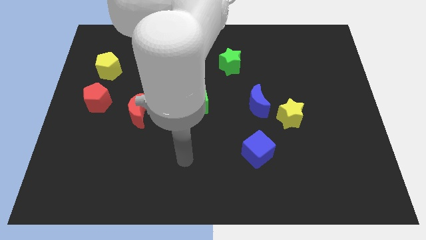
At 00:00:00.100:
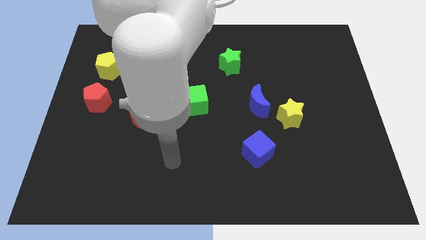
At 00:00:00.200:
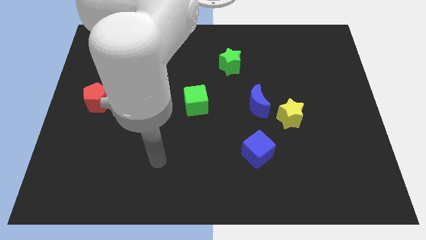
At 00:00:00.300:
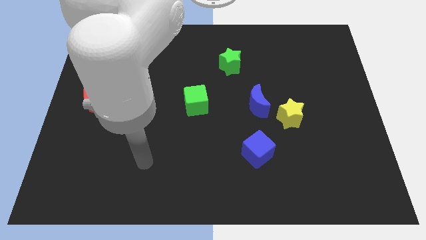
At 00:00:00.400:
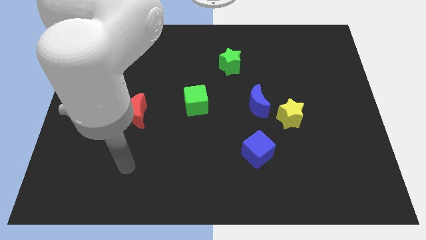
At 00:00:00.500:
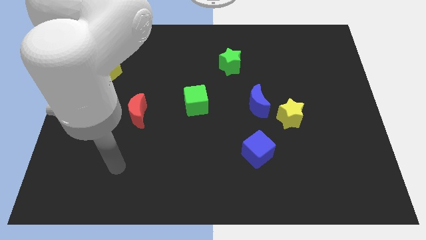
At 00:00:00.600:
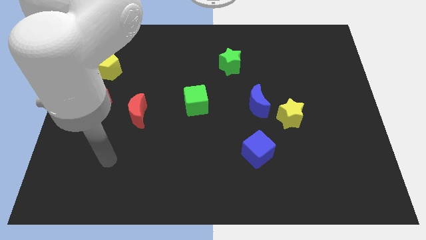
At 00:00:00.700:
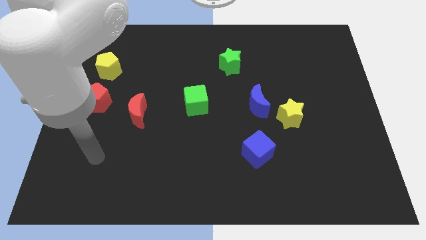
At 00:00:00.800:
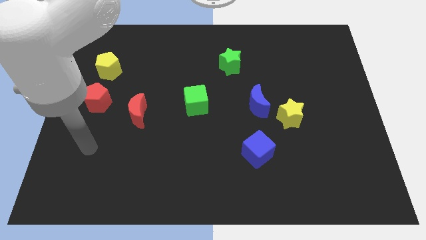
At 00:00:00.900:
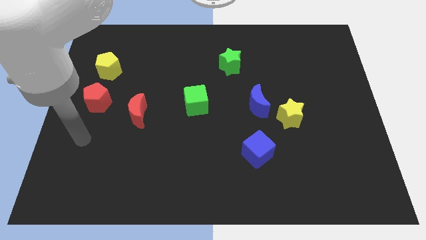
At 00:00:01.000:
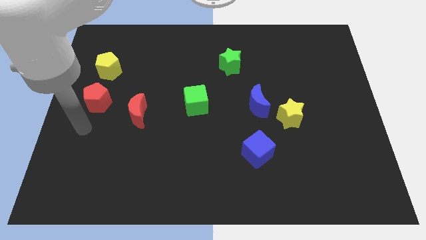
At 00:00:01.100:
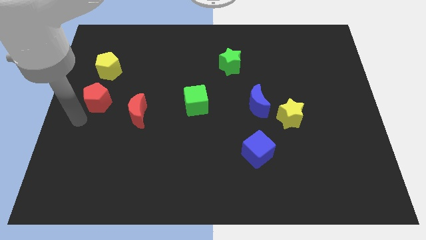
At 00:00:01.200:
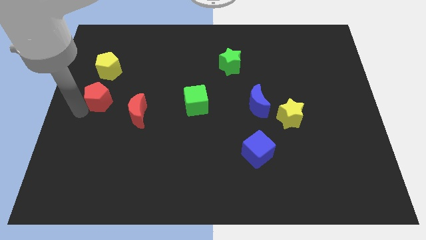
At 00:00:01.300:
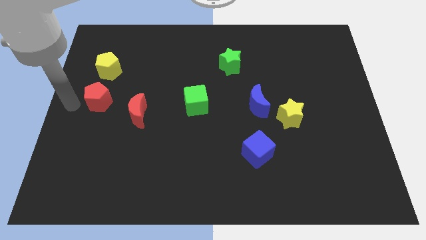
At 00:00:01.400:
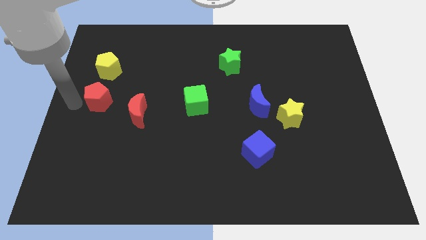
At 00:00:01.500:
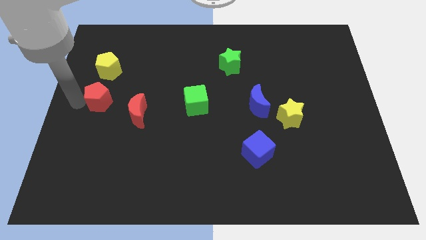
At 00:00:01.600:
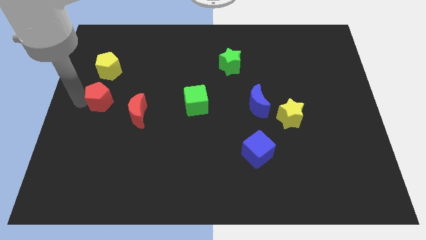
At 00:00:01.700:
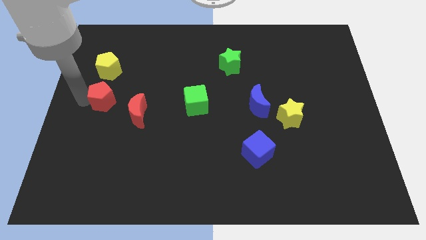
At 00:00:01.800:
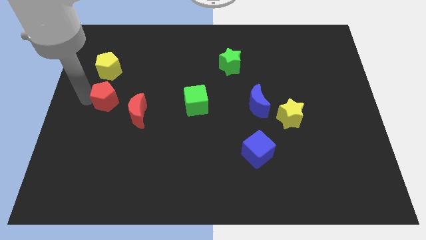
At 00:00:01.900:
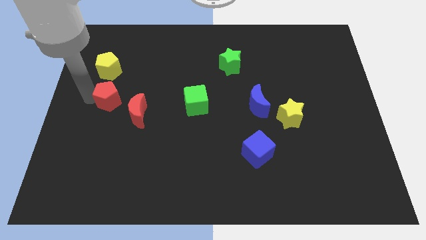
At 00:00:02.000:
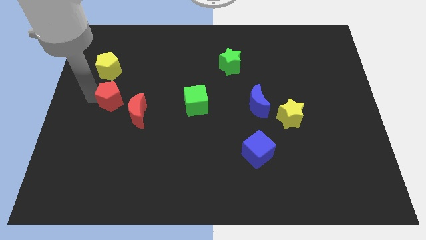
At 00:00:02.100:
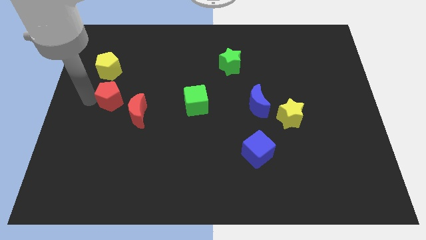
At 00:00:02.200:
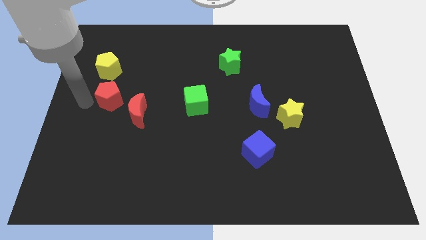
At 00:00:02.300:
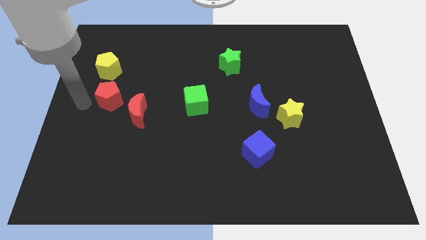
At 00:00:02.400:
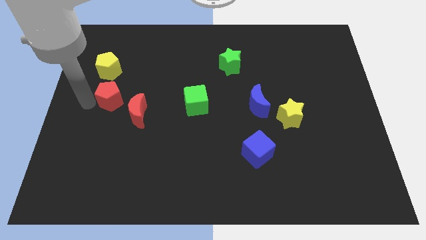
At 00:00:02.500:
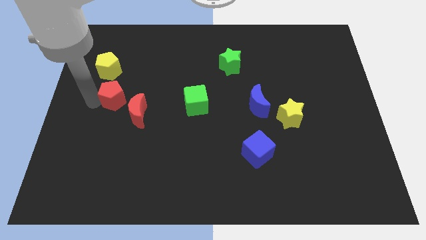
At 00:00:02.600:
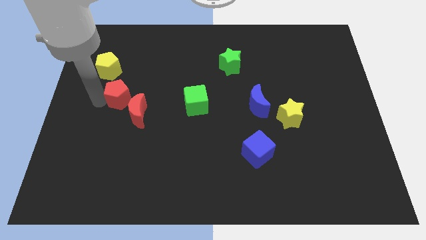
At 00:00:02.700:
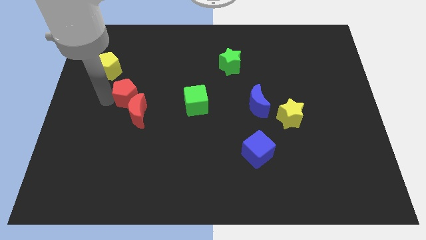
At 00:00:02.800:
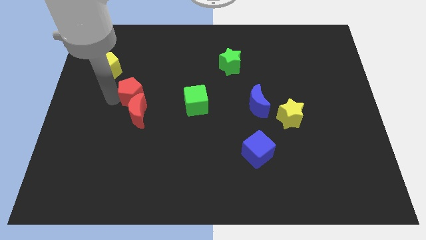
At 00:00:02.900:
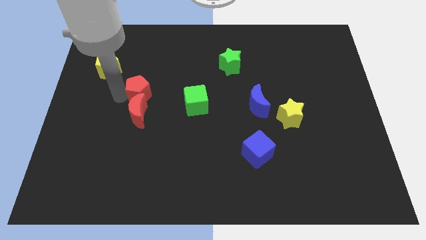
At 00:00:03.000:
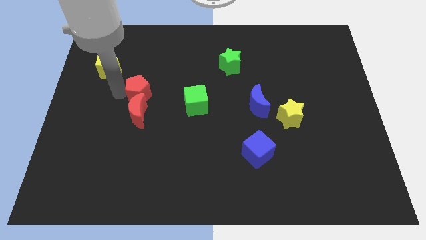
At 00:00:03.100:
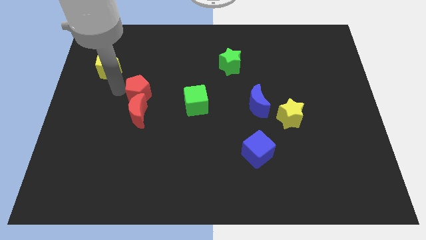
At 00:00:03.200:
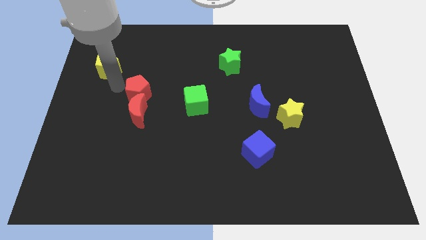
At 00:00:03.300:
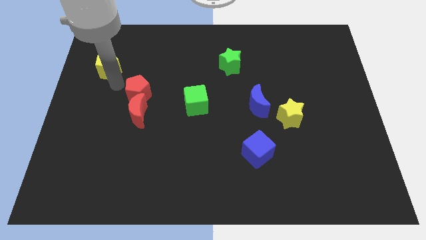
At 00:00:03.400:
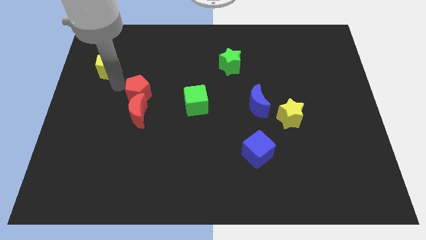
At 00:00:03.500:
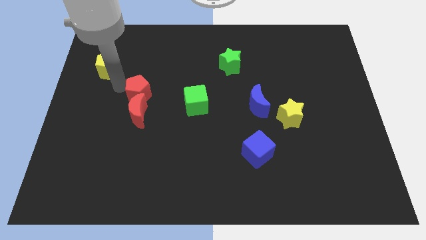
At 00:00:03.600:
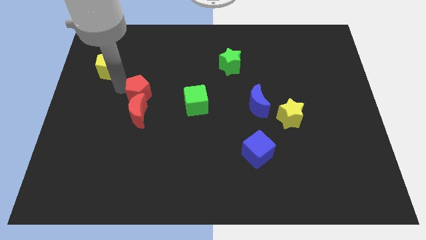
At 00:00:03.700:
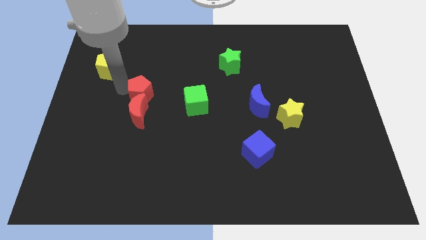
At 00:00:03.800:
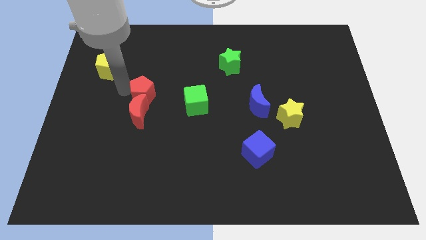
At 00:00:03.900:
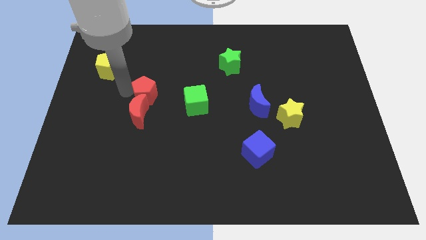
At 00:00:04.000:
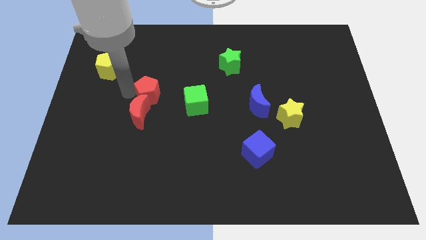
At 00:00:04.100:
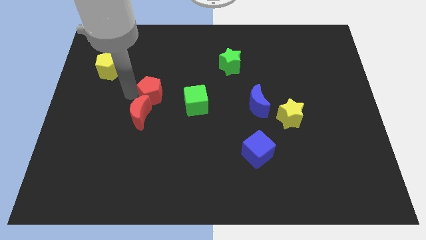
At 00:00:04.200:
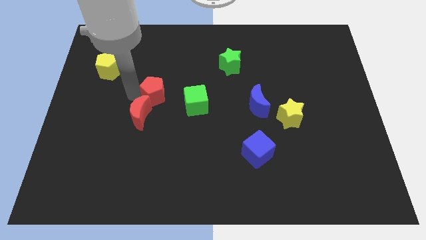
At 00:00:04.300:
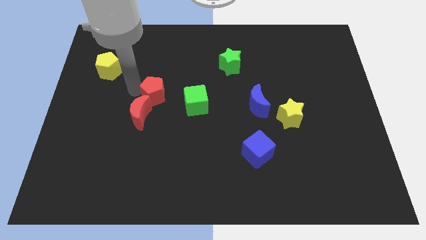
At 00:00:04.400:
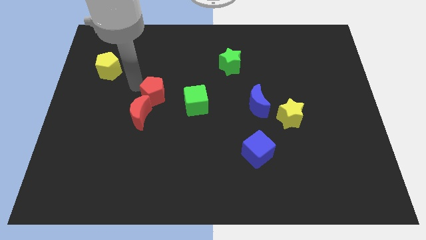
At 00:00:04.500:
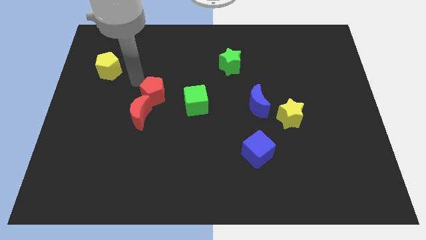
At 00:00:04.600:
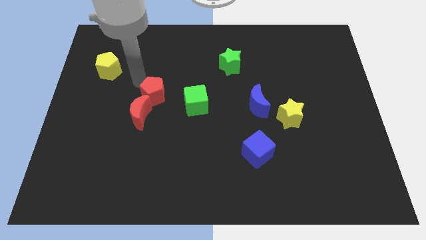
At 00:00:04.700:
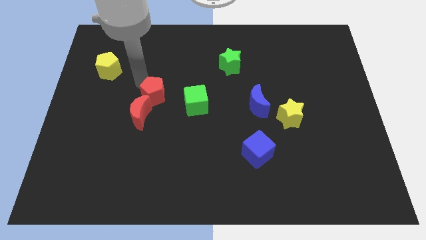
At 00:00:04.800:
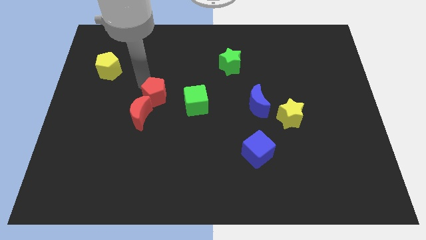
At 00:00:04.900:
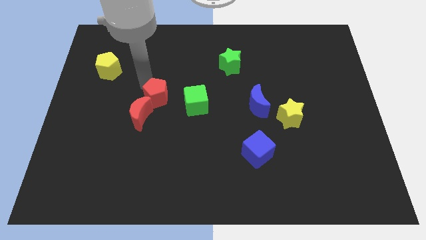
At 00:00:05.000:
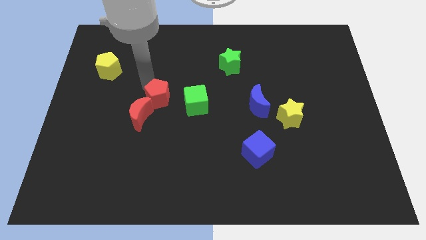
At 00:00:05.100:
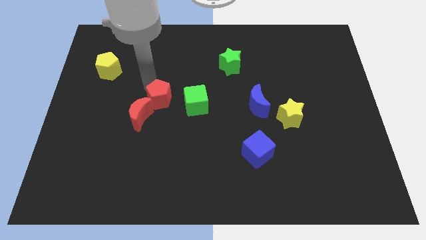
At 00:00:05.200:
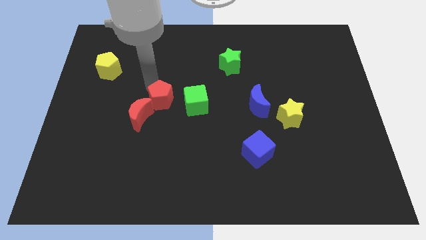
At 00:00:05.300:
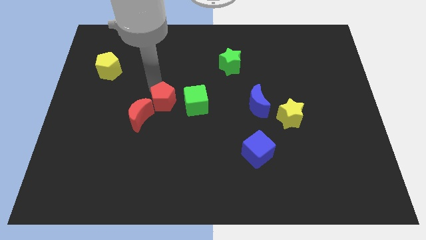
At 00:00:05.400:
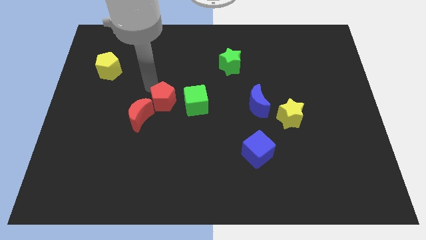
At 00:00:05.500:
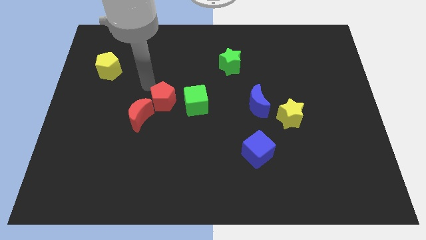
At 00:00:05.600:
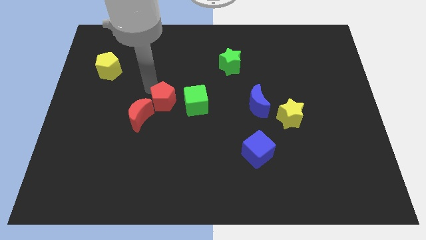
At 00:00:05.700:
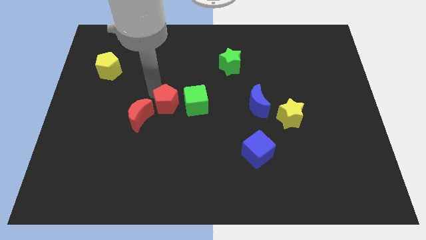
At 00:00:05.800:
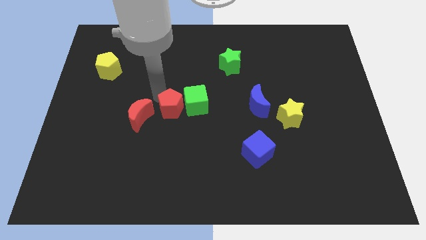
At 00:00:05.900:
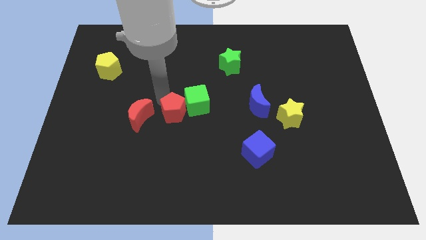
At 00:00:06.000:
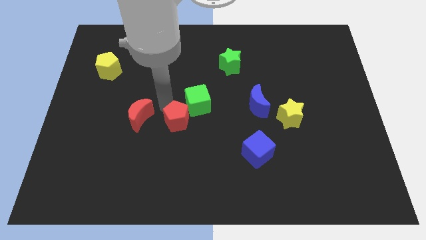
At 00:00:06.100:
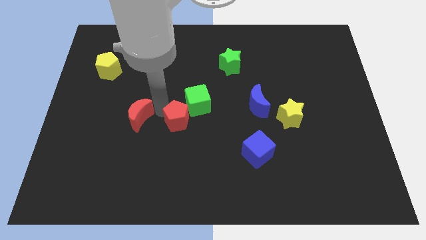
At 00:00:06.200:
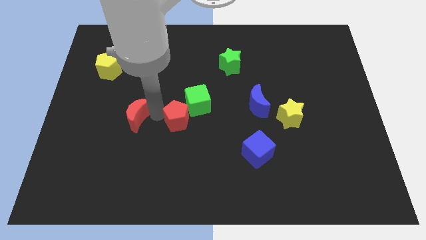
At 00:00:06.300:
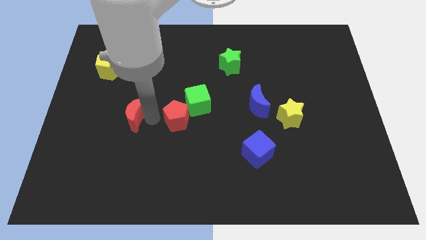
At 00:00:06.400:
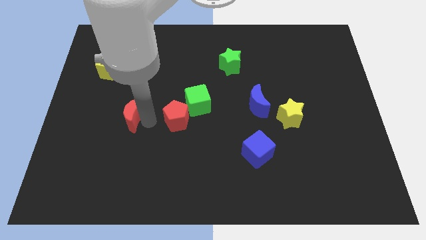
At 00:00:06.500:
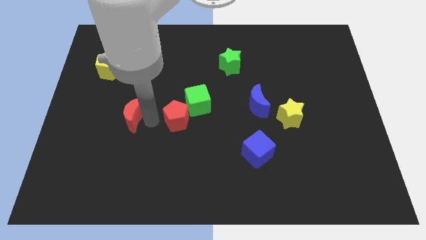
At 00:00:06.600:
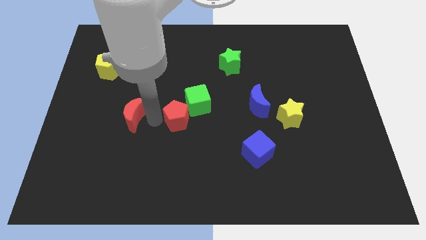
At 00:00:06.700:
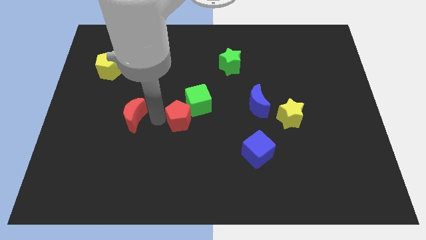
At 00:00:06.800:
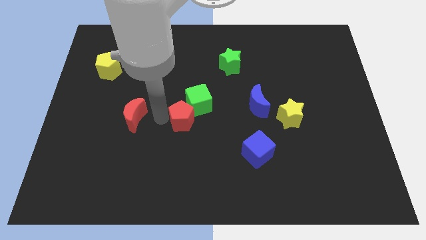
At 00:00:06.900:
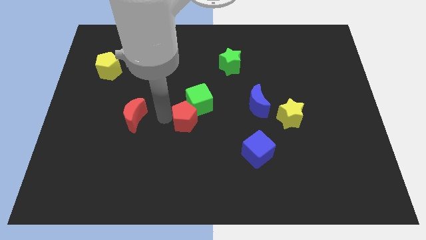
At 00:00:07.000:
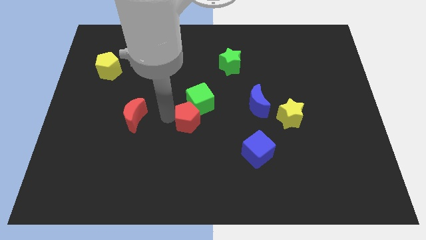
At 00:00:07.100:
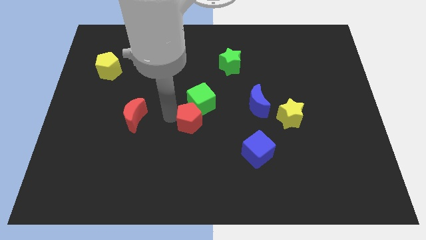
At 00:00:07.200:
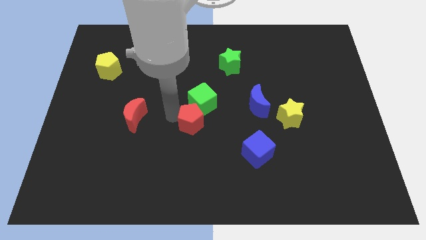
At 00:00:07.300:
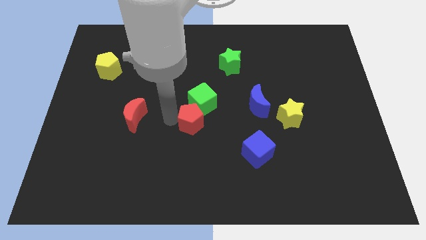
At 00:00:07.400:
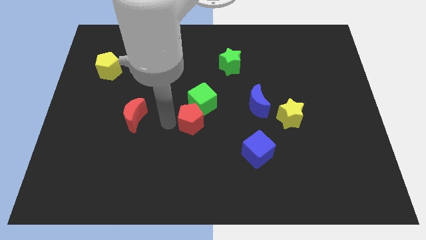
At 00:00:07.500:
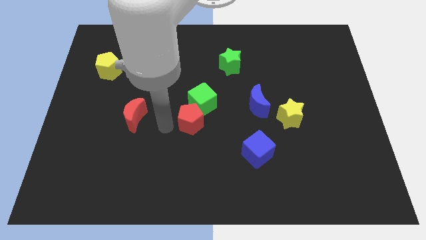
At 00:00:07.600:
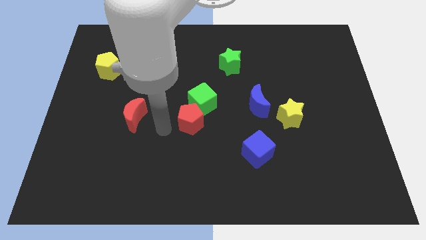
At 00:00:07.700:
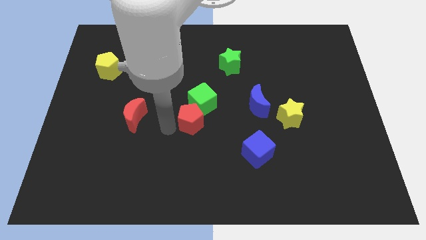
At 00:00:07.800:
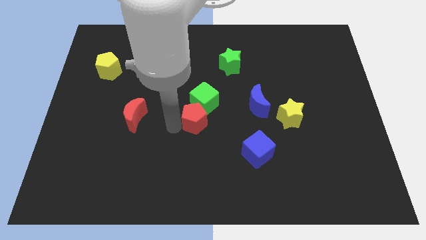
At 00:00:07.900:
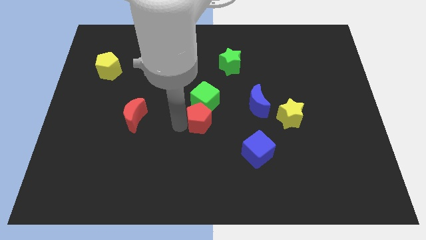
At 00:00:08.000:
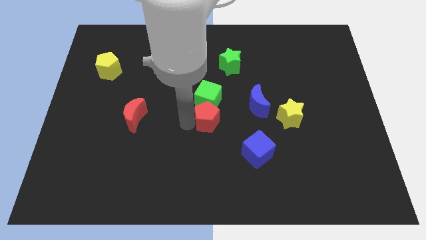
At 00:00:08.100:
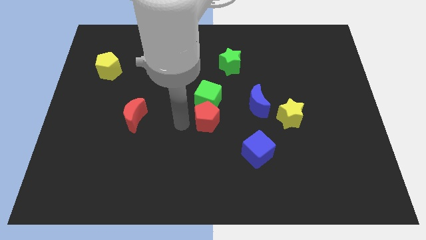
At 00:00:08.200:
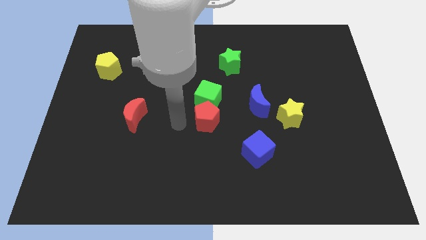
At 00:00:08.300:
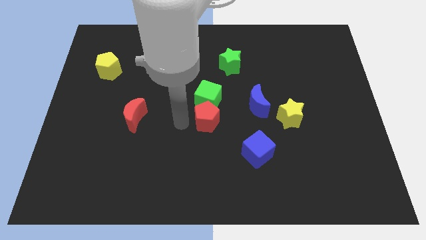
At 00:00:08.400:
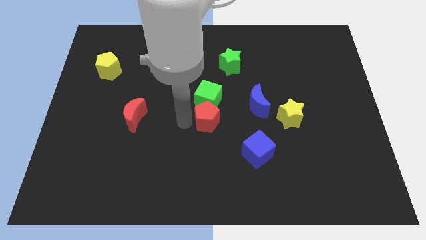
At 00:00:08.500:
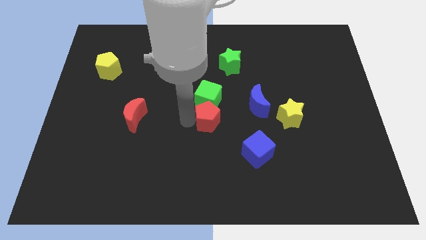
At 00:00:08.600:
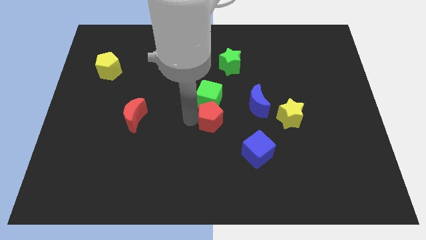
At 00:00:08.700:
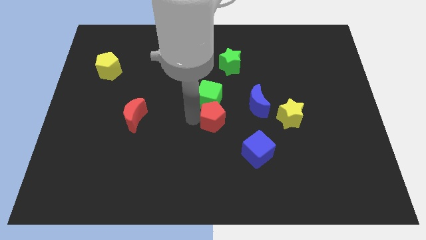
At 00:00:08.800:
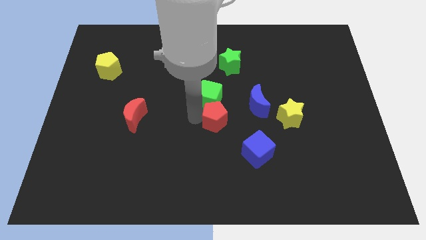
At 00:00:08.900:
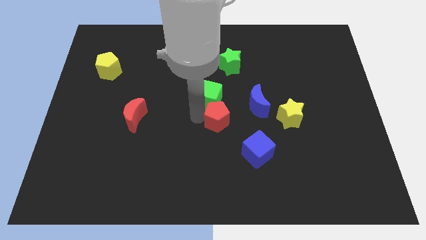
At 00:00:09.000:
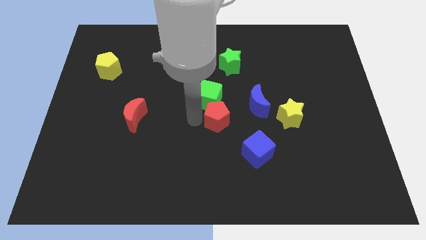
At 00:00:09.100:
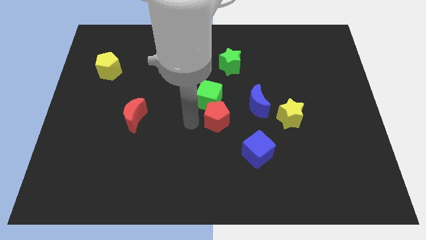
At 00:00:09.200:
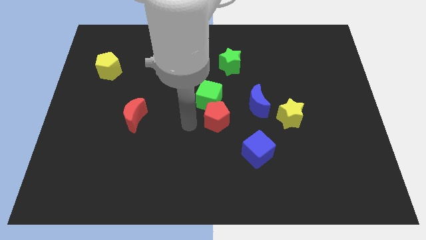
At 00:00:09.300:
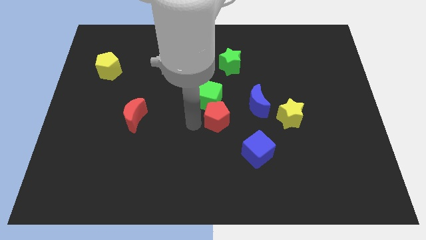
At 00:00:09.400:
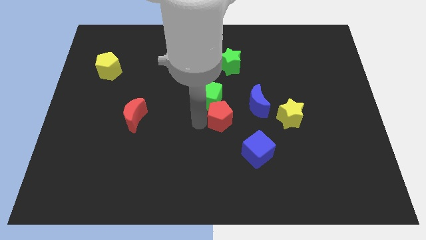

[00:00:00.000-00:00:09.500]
push the red pentagon to the left side of the yellow star
